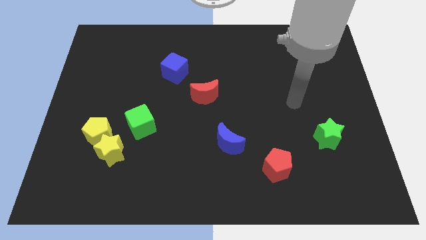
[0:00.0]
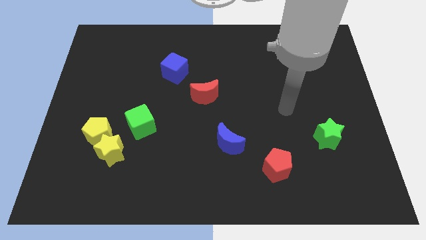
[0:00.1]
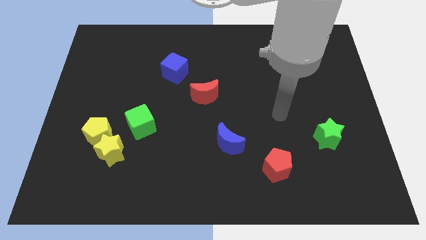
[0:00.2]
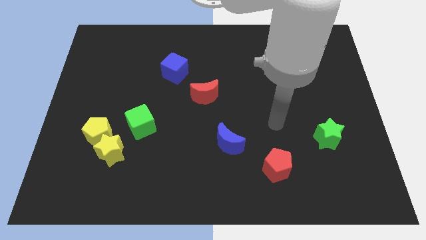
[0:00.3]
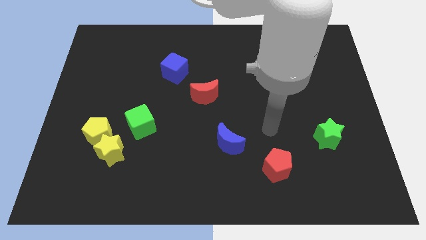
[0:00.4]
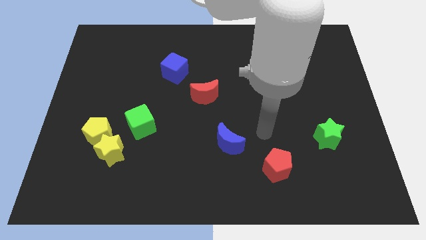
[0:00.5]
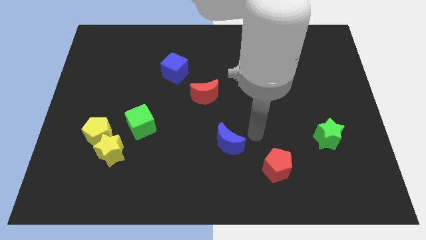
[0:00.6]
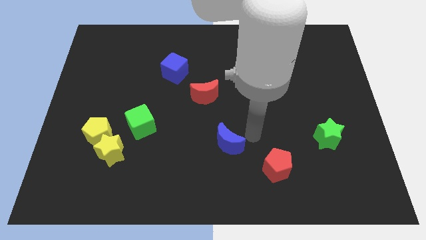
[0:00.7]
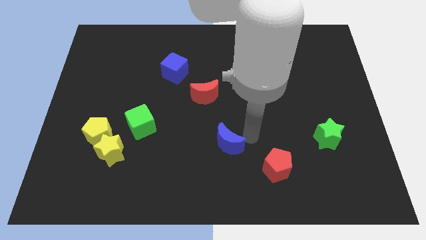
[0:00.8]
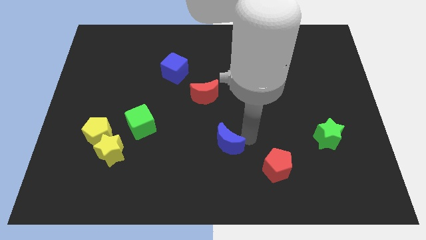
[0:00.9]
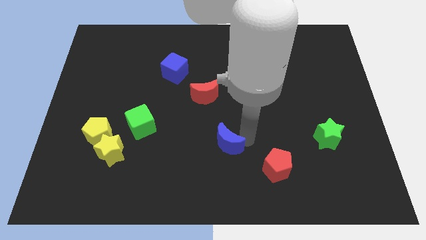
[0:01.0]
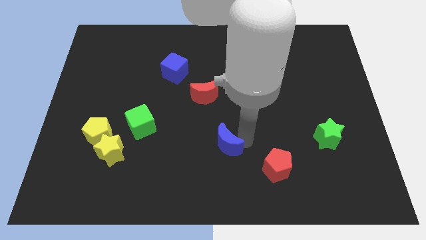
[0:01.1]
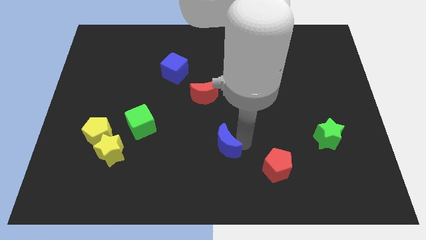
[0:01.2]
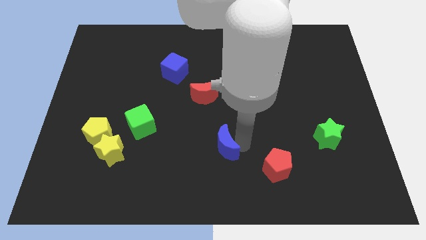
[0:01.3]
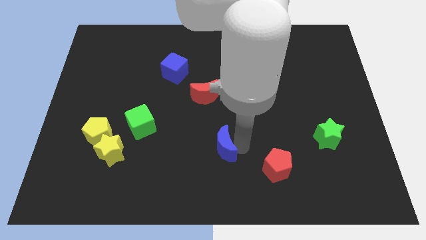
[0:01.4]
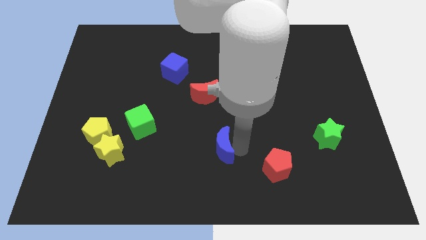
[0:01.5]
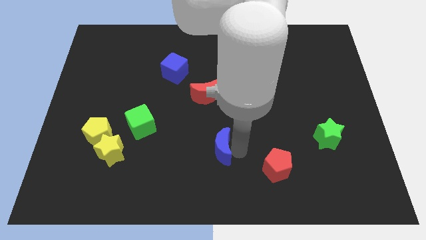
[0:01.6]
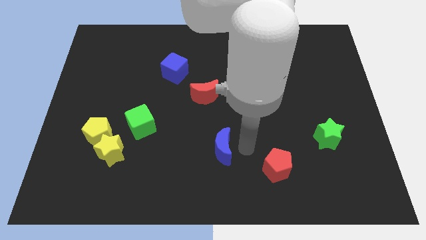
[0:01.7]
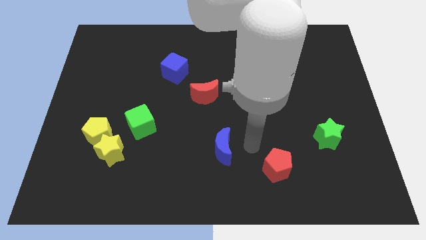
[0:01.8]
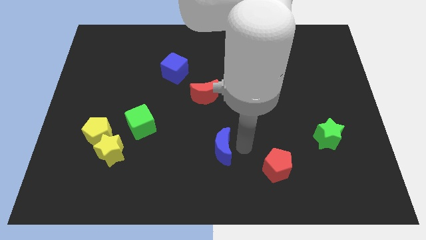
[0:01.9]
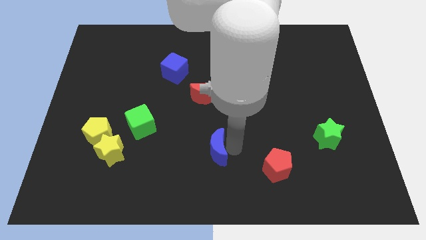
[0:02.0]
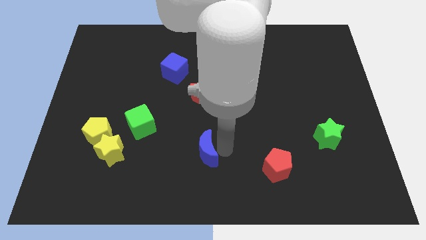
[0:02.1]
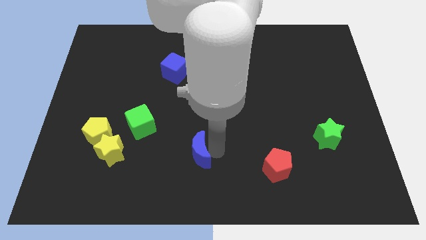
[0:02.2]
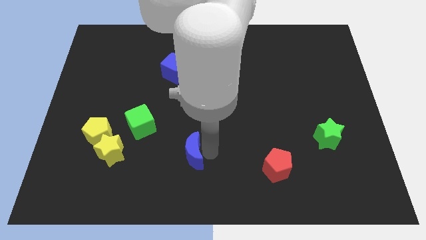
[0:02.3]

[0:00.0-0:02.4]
slide the blue moon left somewhat

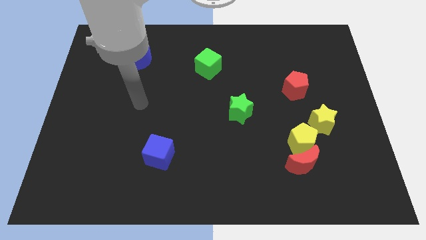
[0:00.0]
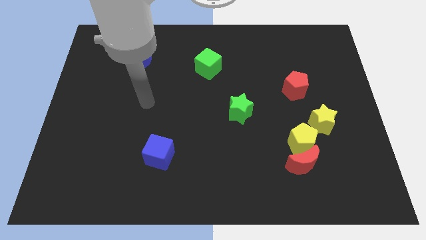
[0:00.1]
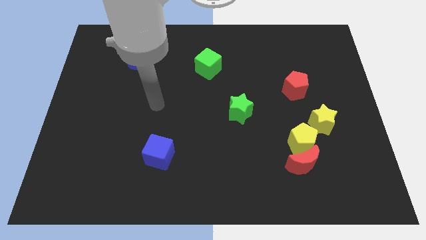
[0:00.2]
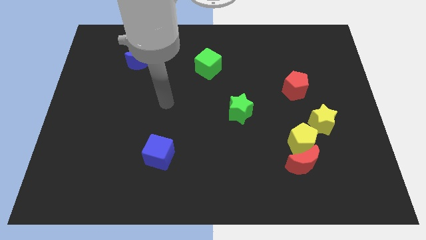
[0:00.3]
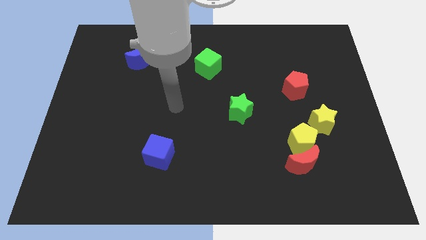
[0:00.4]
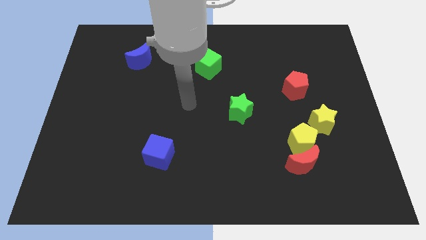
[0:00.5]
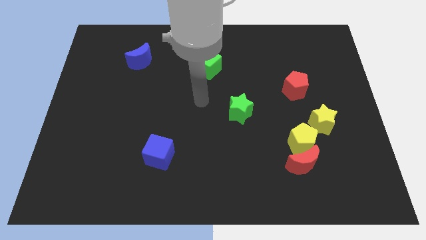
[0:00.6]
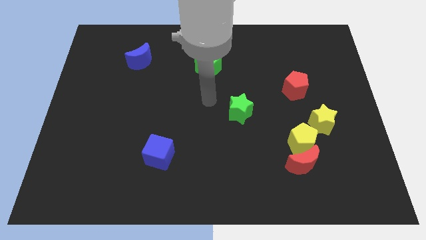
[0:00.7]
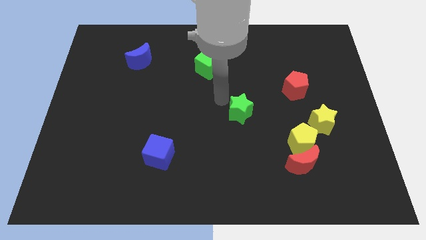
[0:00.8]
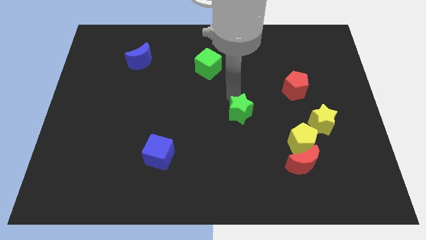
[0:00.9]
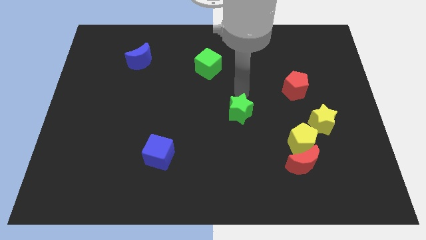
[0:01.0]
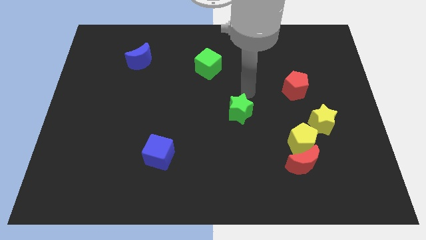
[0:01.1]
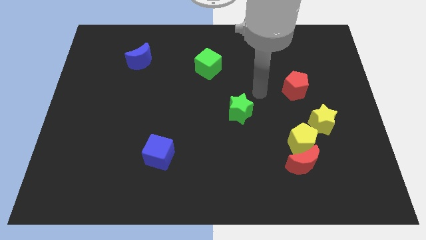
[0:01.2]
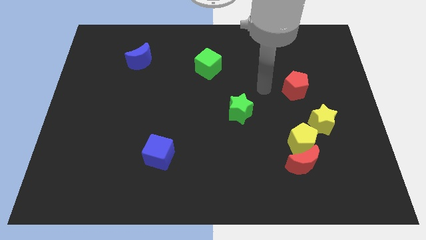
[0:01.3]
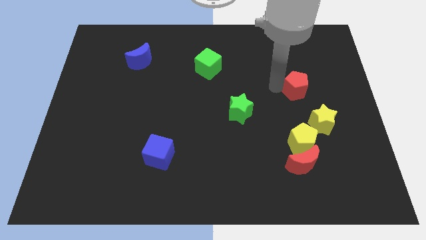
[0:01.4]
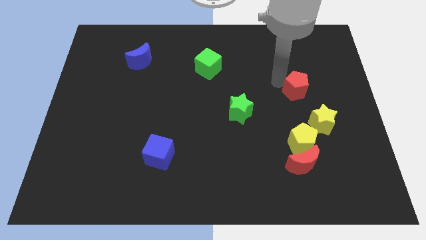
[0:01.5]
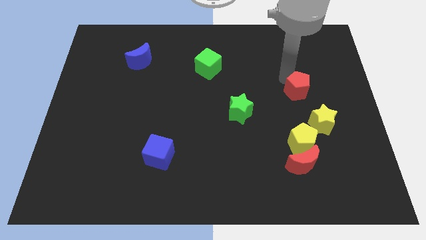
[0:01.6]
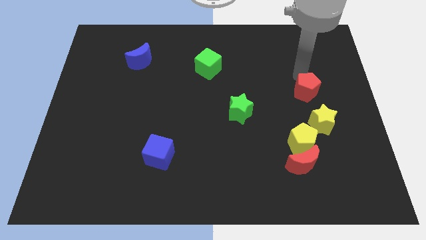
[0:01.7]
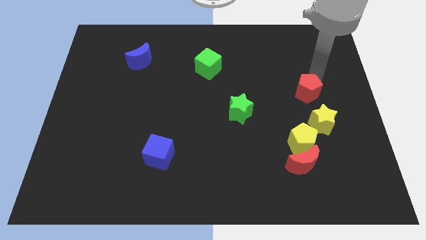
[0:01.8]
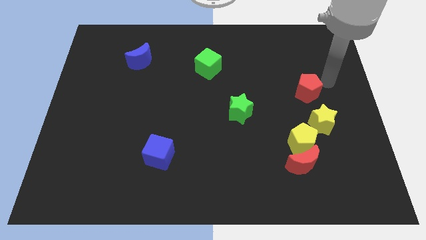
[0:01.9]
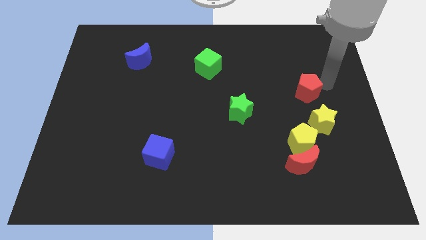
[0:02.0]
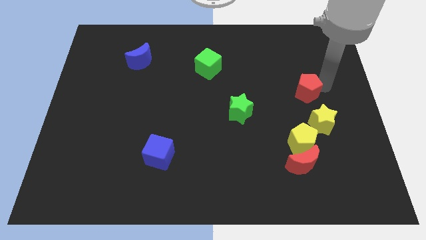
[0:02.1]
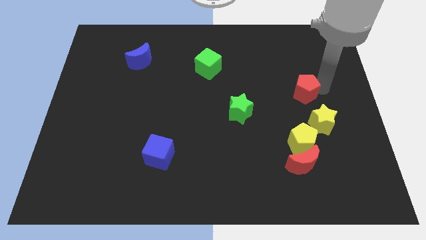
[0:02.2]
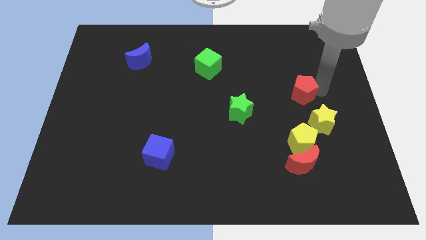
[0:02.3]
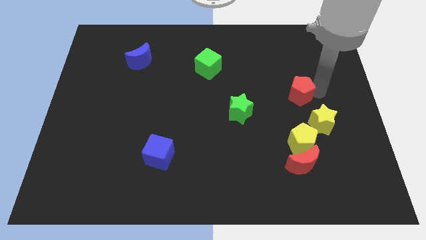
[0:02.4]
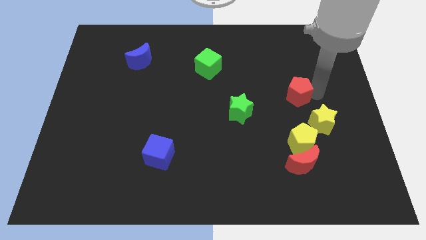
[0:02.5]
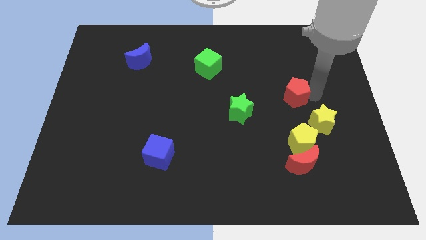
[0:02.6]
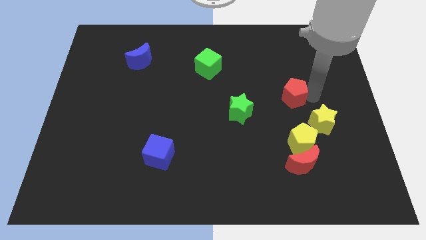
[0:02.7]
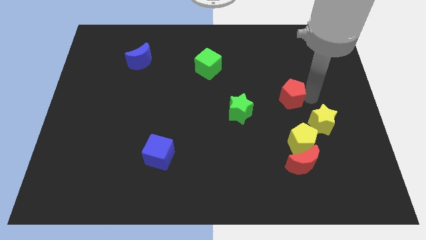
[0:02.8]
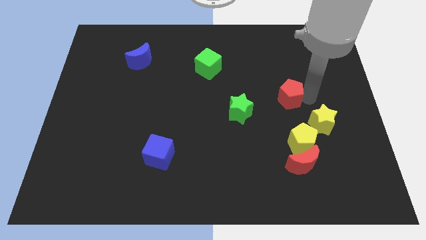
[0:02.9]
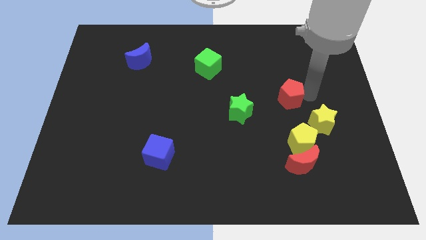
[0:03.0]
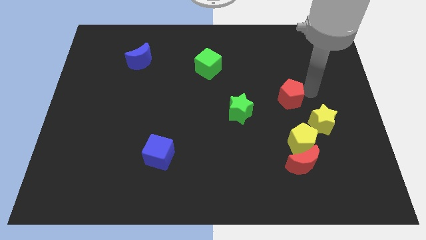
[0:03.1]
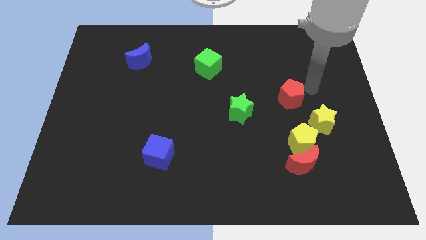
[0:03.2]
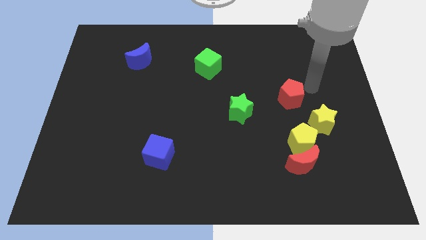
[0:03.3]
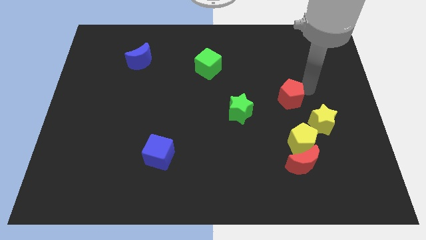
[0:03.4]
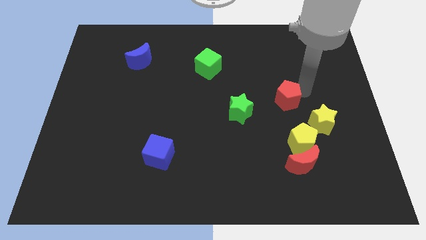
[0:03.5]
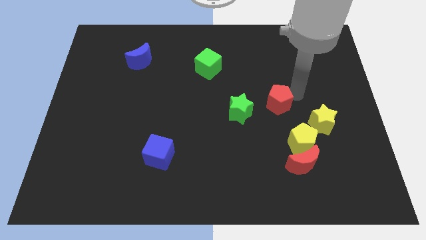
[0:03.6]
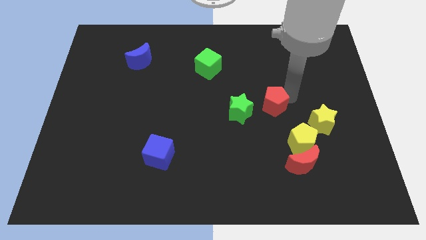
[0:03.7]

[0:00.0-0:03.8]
slightly push the red pentagon diagonally down and to the left

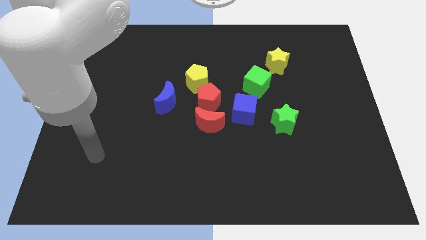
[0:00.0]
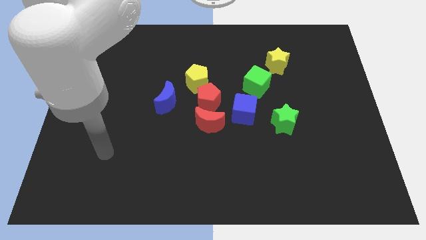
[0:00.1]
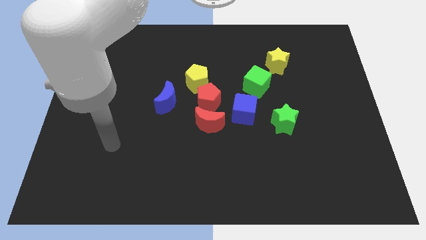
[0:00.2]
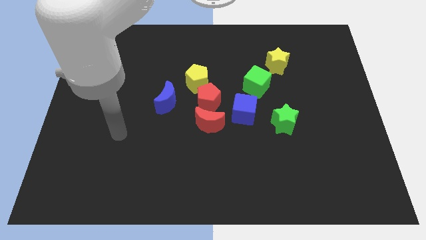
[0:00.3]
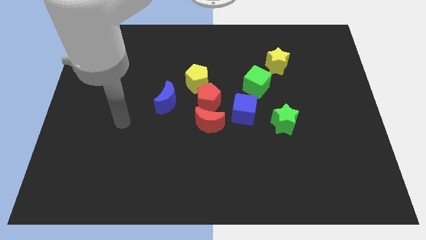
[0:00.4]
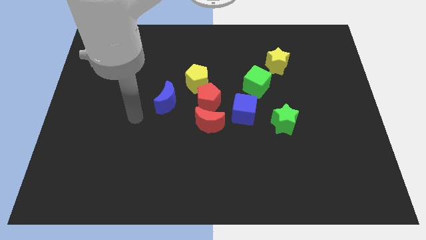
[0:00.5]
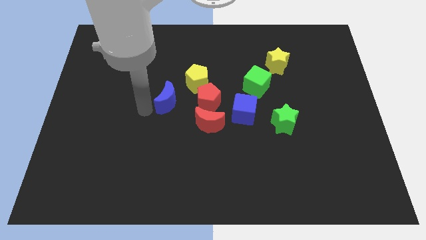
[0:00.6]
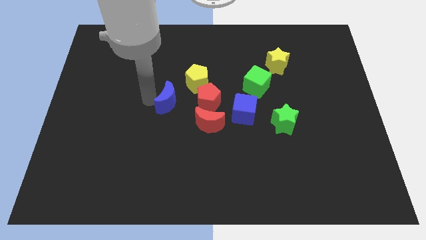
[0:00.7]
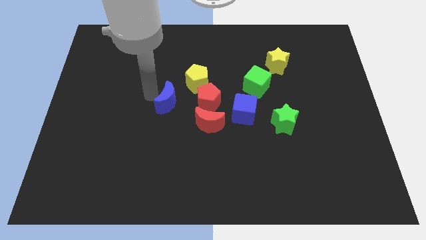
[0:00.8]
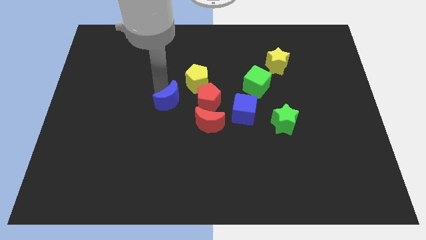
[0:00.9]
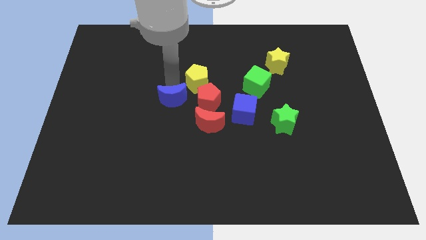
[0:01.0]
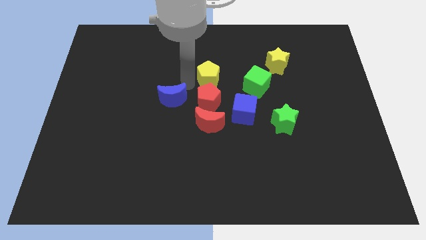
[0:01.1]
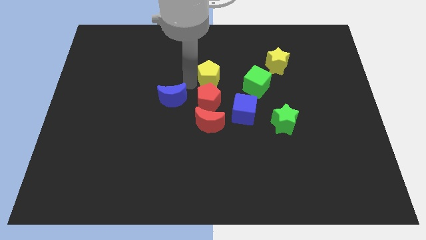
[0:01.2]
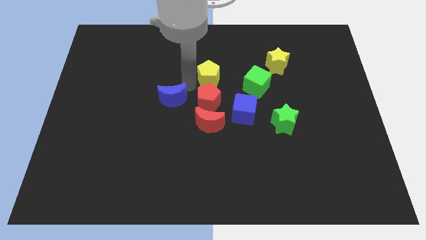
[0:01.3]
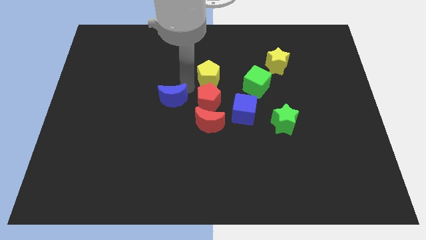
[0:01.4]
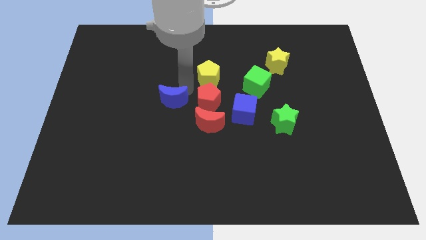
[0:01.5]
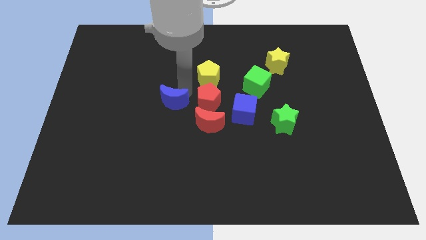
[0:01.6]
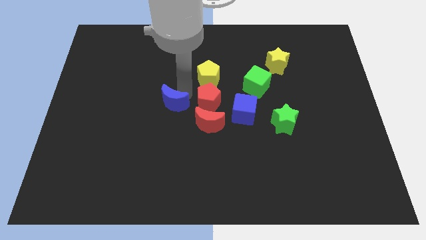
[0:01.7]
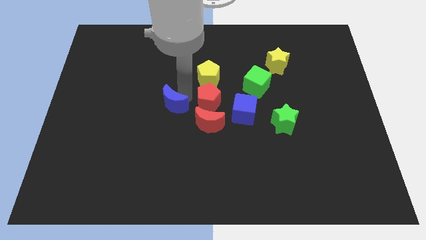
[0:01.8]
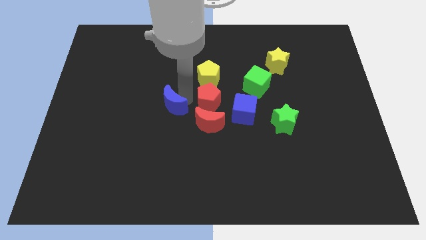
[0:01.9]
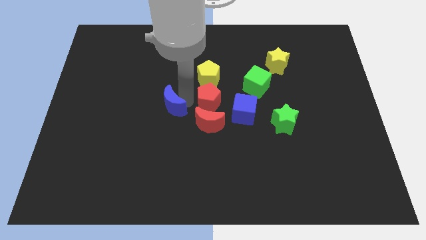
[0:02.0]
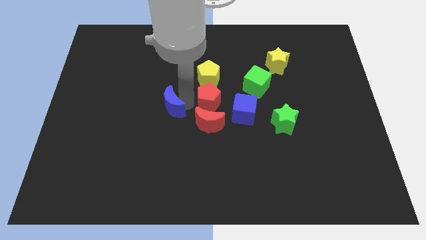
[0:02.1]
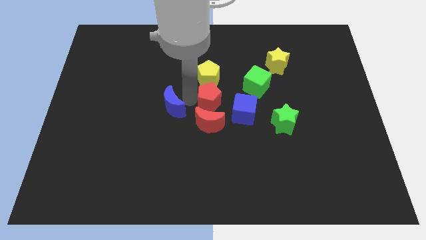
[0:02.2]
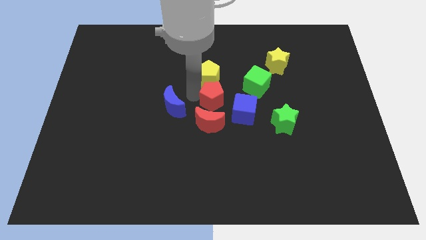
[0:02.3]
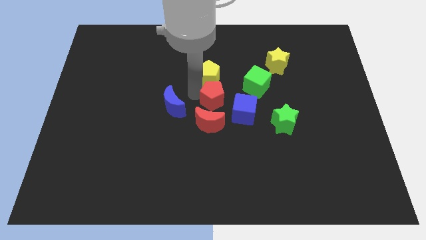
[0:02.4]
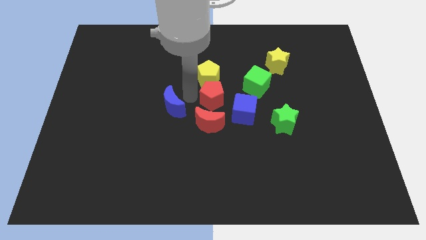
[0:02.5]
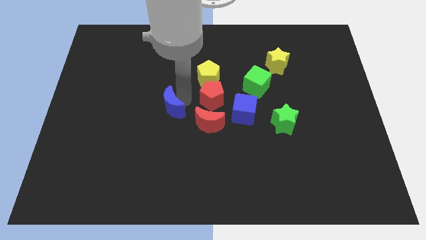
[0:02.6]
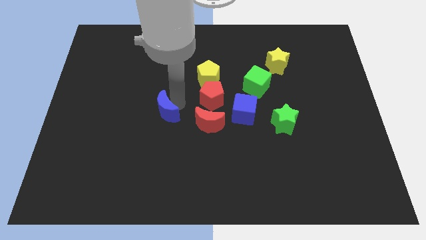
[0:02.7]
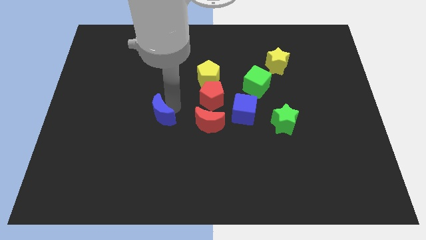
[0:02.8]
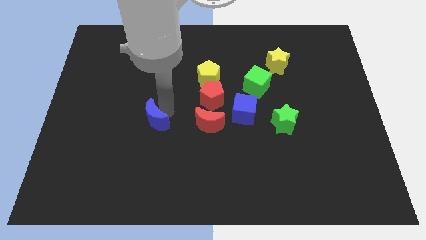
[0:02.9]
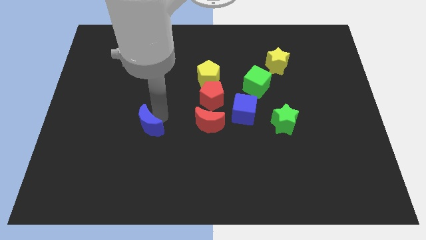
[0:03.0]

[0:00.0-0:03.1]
slightly push the blue moon downwards and left
